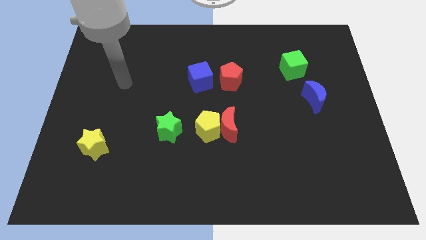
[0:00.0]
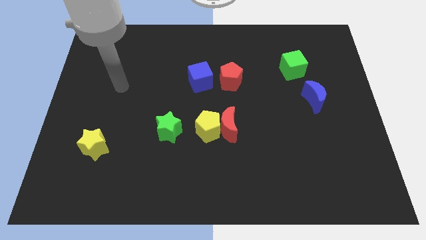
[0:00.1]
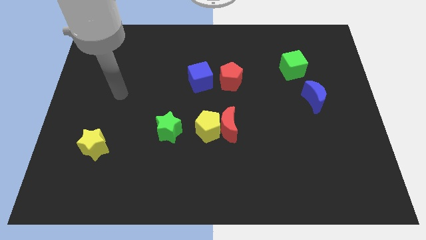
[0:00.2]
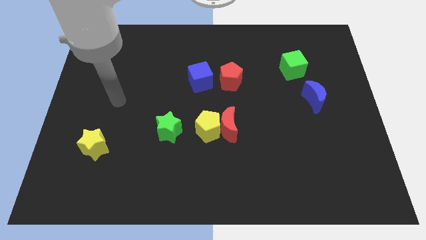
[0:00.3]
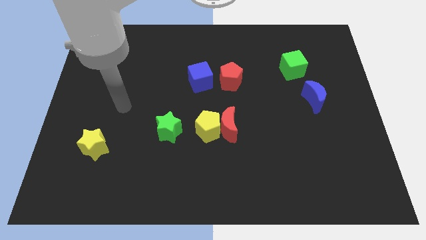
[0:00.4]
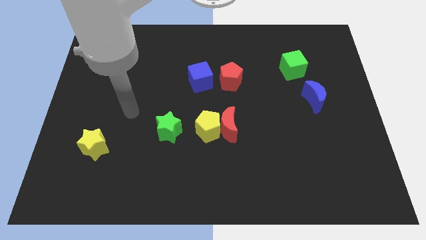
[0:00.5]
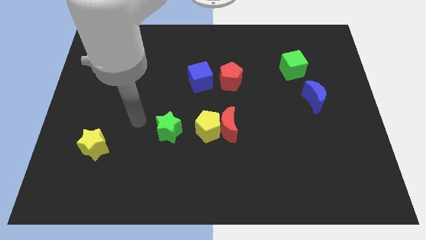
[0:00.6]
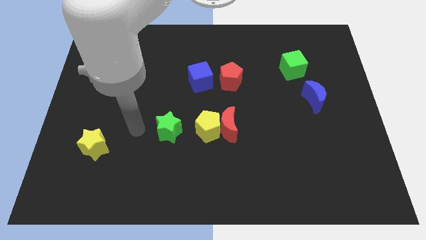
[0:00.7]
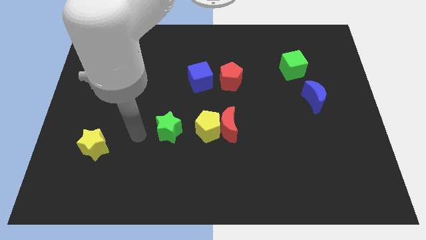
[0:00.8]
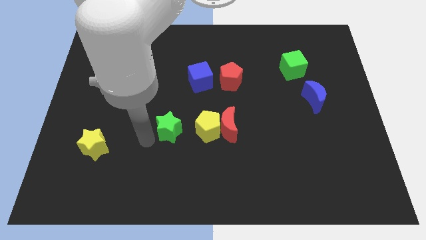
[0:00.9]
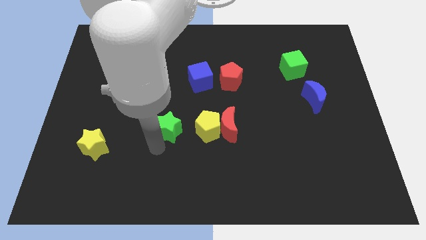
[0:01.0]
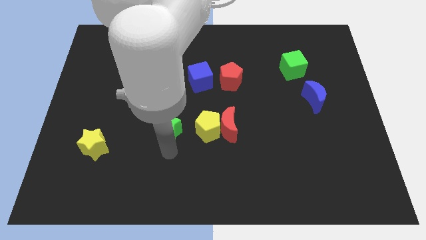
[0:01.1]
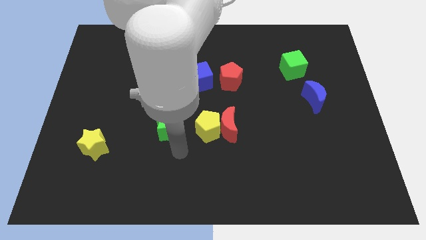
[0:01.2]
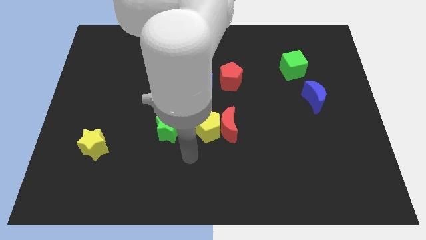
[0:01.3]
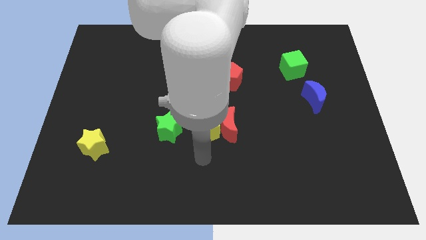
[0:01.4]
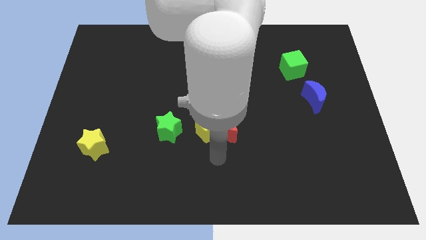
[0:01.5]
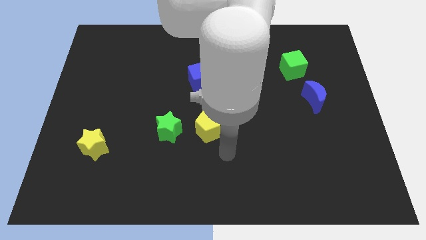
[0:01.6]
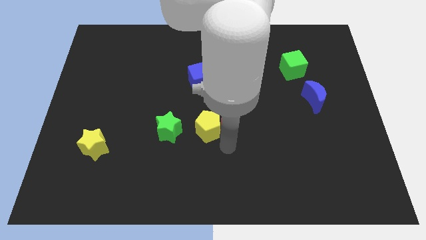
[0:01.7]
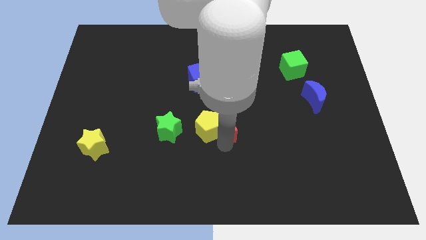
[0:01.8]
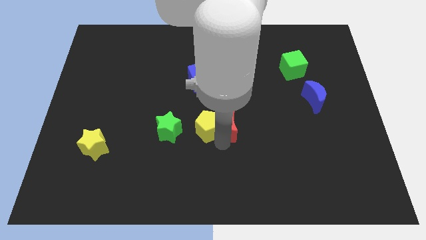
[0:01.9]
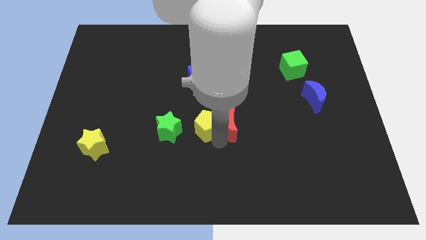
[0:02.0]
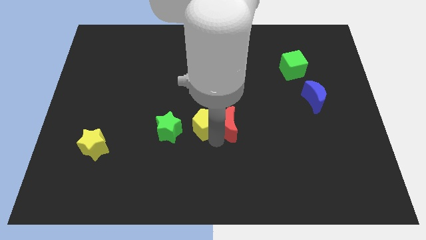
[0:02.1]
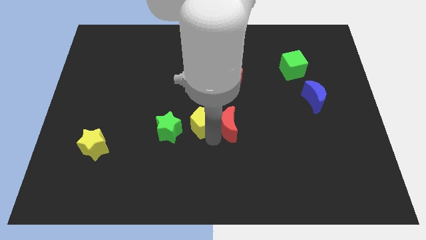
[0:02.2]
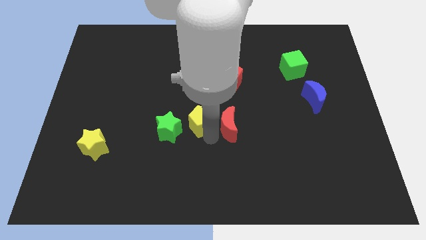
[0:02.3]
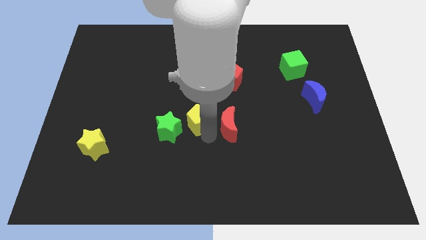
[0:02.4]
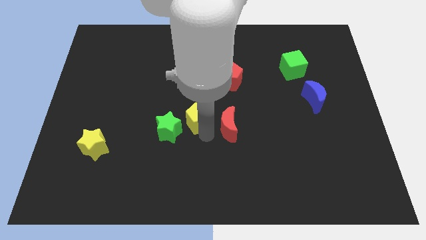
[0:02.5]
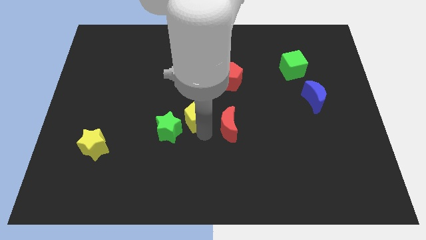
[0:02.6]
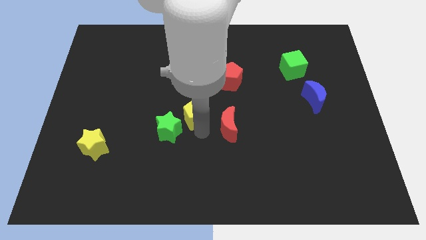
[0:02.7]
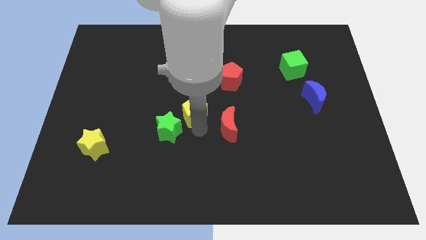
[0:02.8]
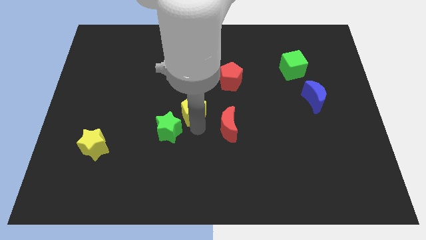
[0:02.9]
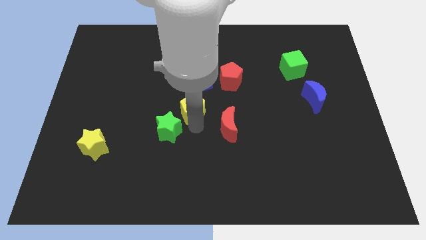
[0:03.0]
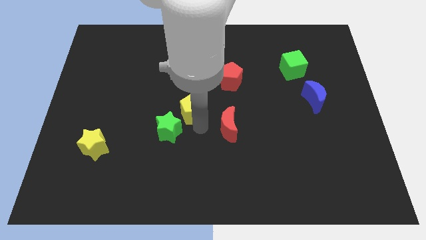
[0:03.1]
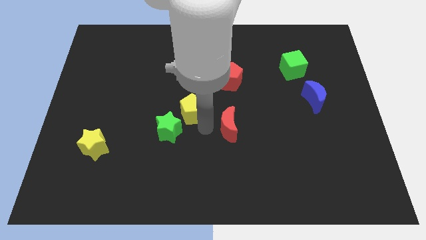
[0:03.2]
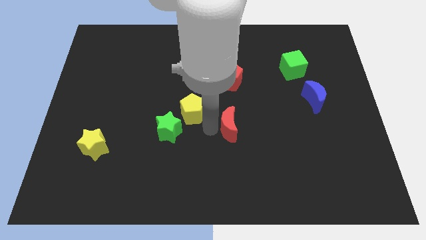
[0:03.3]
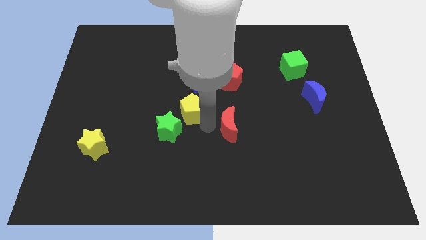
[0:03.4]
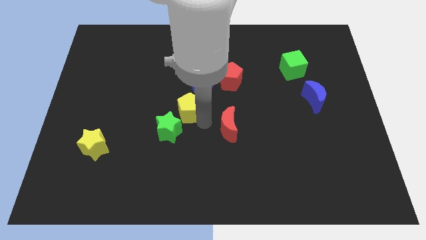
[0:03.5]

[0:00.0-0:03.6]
push the yellow pentagon upwards and to the left a little

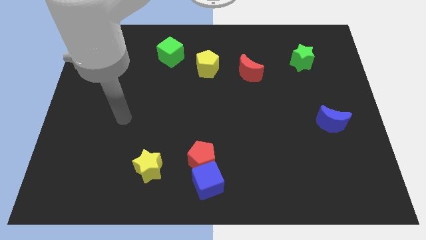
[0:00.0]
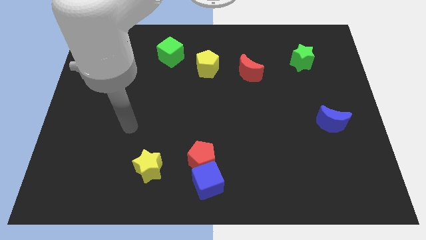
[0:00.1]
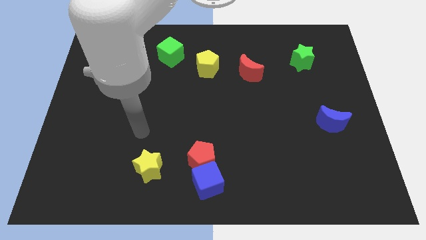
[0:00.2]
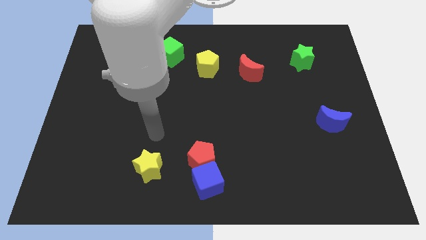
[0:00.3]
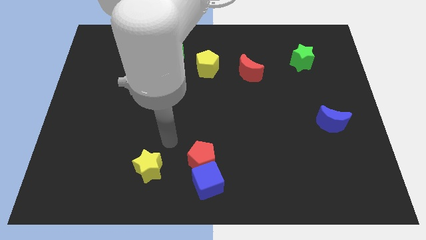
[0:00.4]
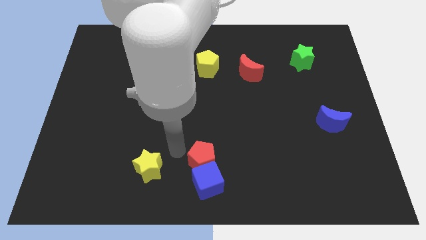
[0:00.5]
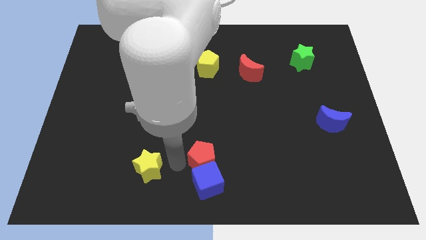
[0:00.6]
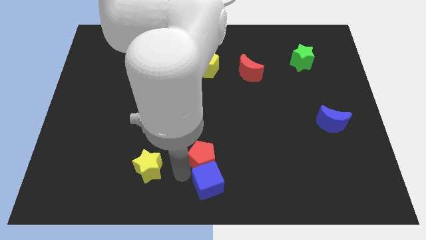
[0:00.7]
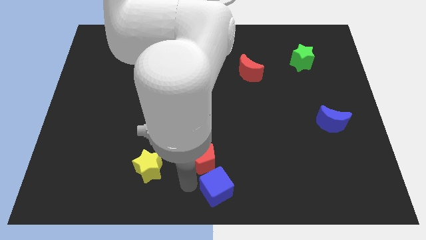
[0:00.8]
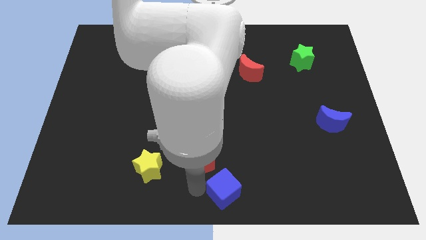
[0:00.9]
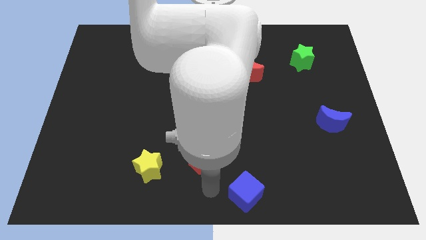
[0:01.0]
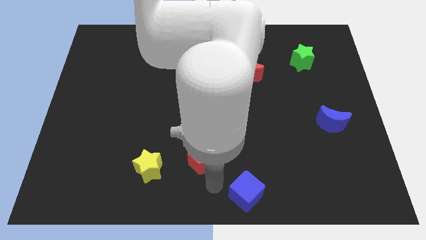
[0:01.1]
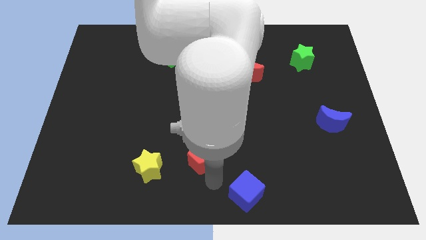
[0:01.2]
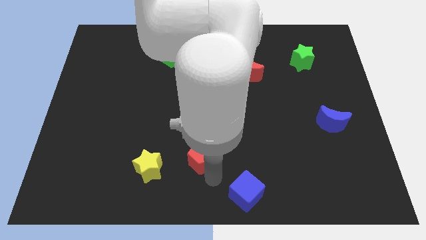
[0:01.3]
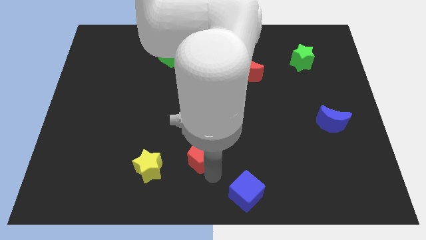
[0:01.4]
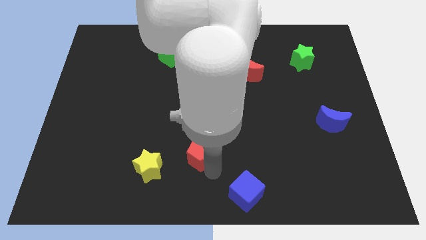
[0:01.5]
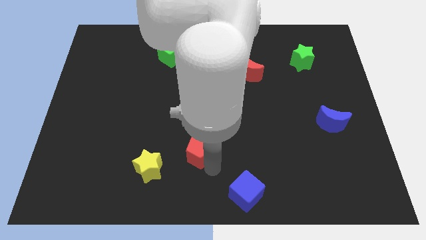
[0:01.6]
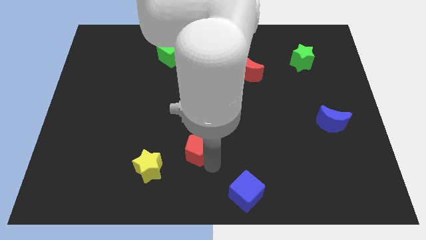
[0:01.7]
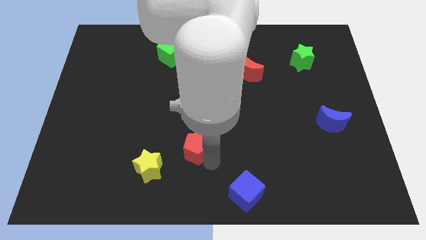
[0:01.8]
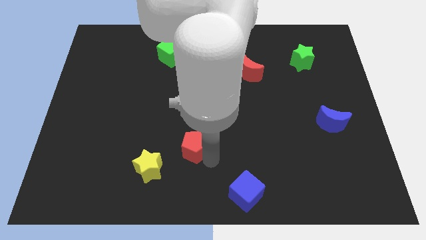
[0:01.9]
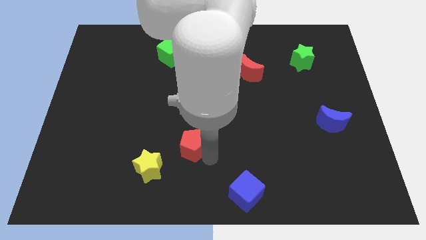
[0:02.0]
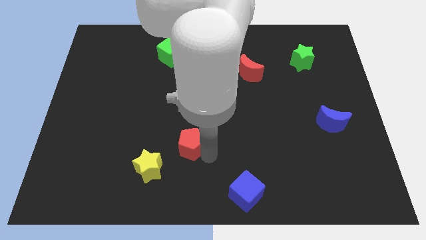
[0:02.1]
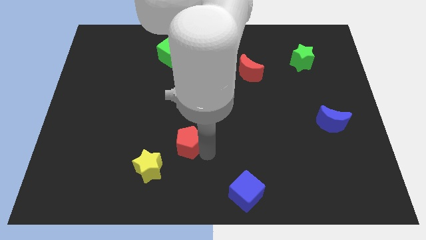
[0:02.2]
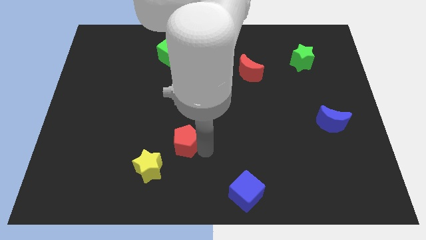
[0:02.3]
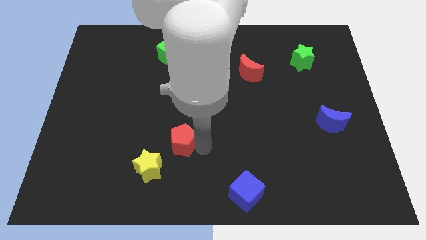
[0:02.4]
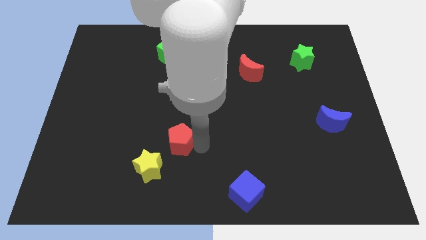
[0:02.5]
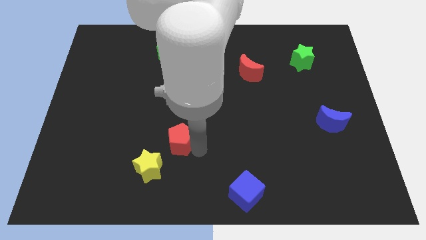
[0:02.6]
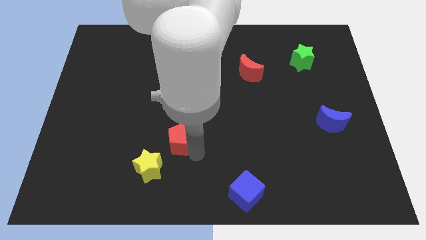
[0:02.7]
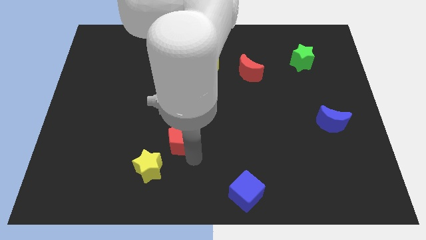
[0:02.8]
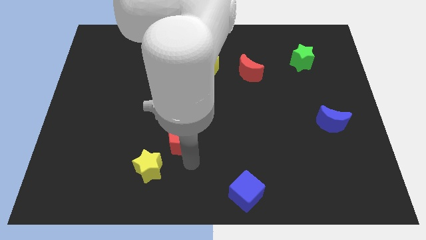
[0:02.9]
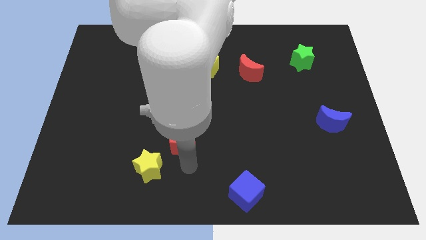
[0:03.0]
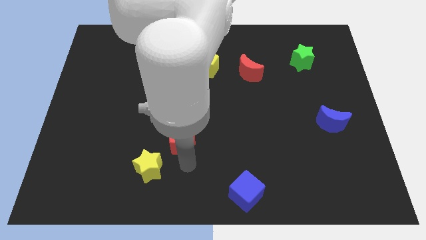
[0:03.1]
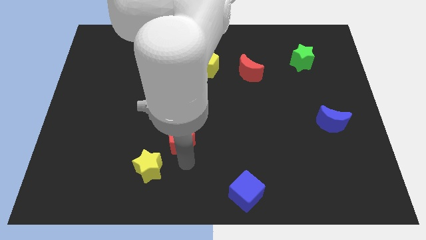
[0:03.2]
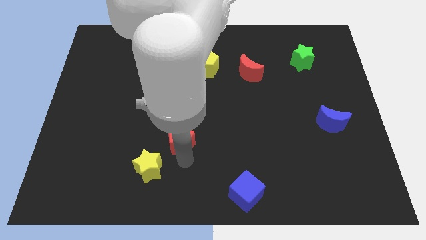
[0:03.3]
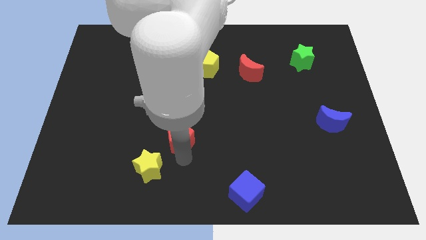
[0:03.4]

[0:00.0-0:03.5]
push the red pentagon a bit up and left diagonally

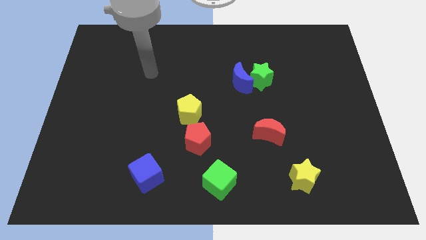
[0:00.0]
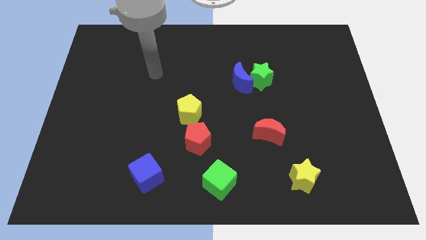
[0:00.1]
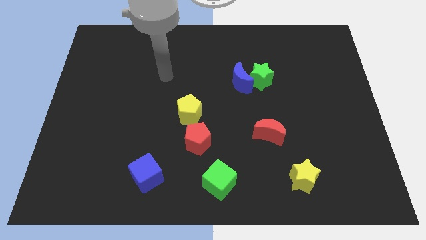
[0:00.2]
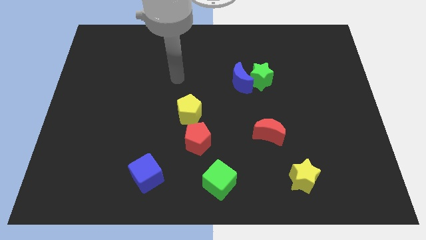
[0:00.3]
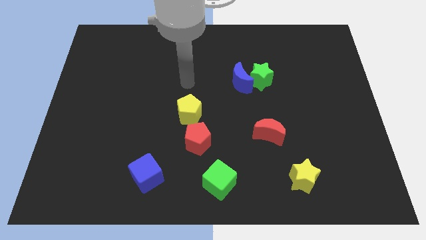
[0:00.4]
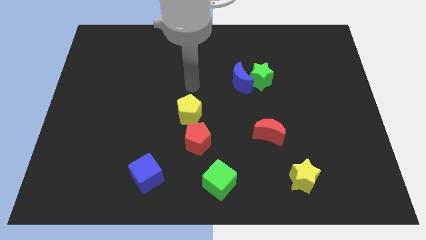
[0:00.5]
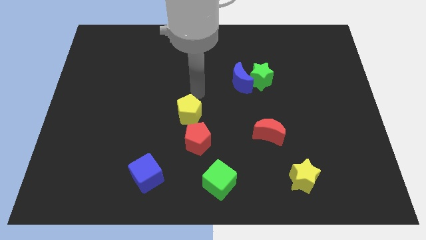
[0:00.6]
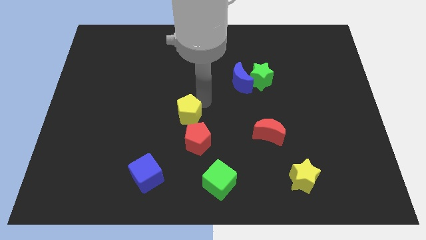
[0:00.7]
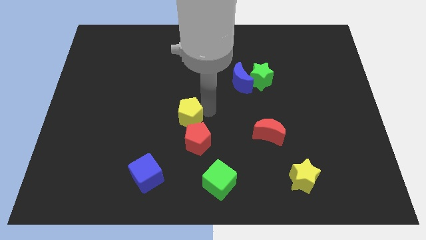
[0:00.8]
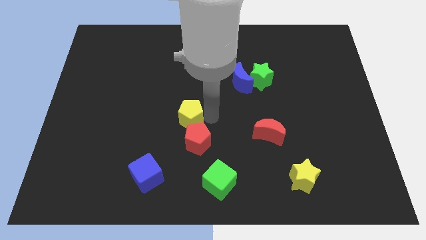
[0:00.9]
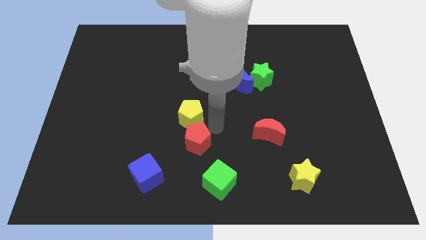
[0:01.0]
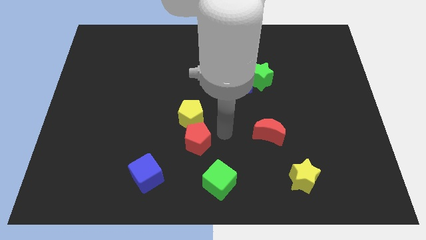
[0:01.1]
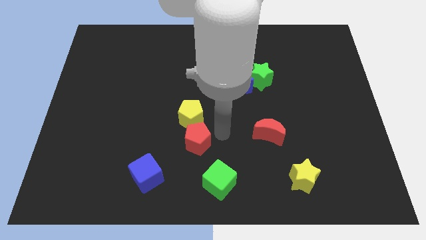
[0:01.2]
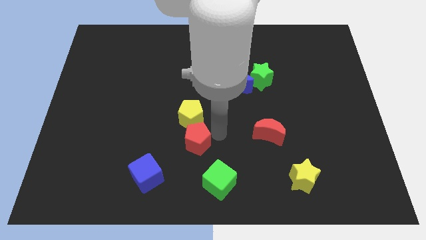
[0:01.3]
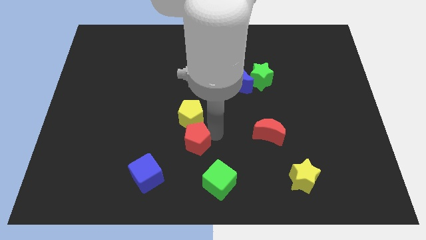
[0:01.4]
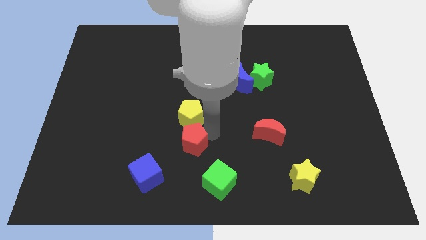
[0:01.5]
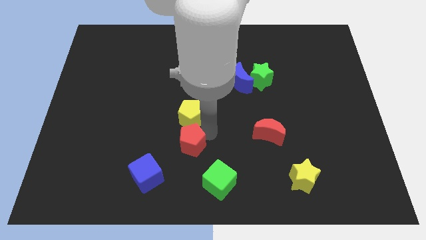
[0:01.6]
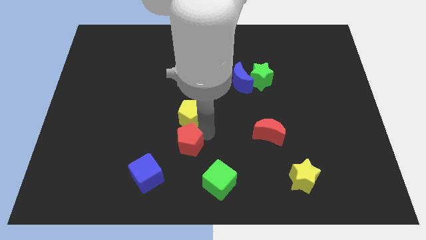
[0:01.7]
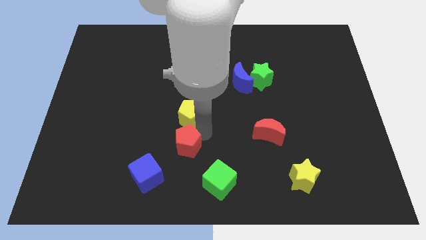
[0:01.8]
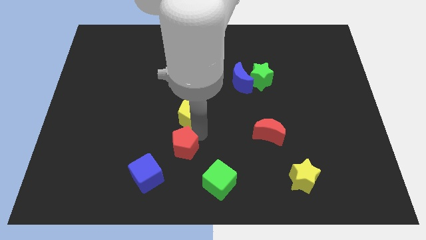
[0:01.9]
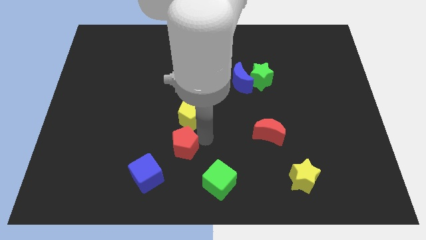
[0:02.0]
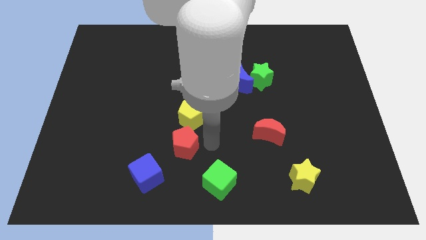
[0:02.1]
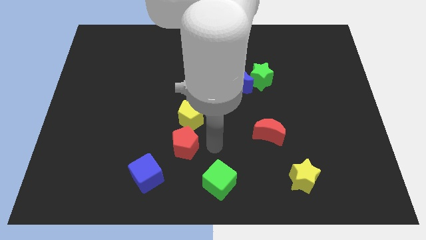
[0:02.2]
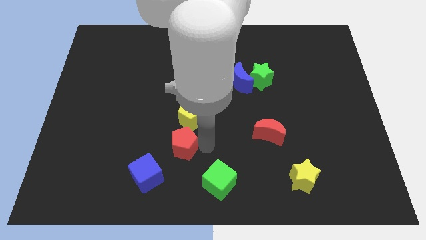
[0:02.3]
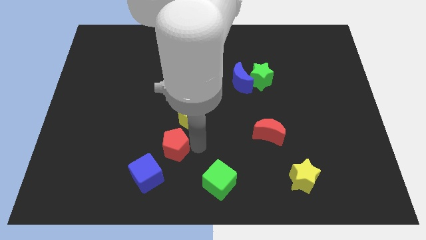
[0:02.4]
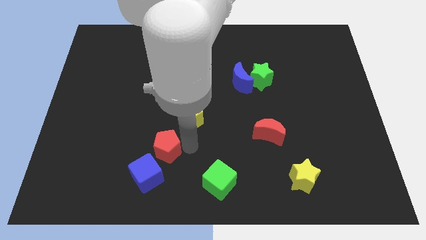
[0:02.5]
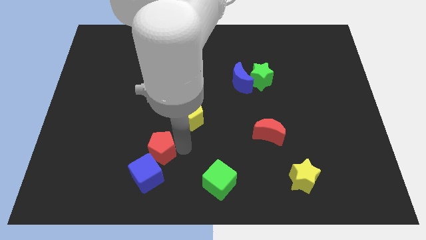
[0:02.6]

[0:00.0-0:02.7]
push the red pentagon to the left a bit
